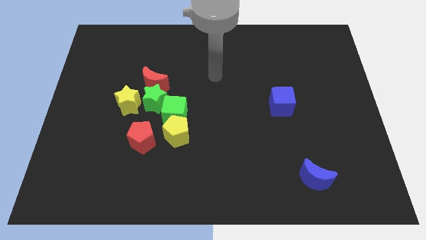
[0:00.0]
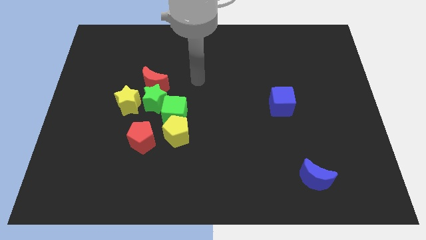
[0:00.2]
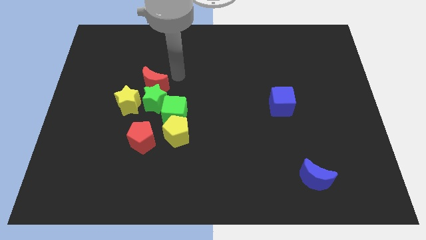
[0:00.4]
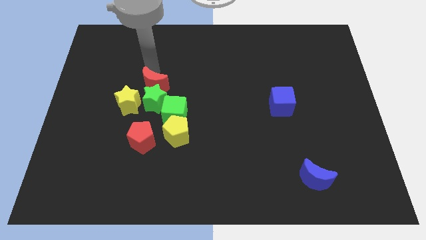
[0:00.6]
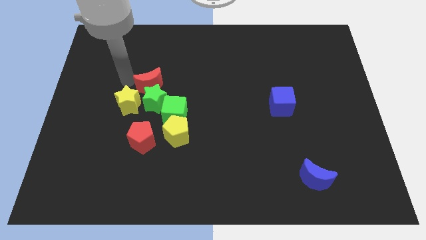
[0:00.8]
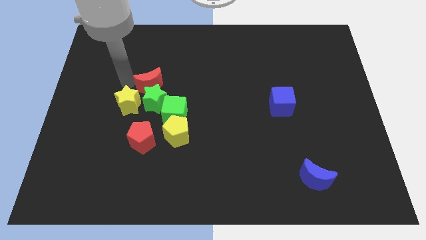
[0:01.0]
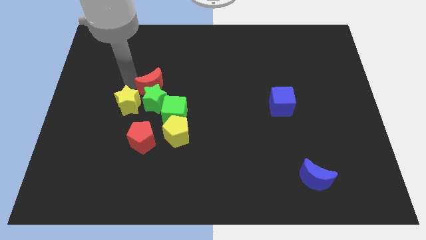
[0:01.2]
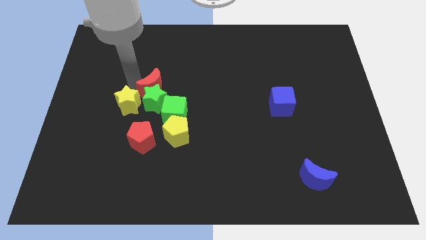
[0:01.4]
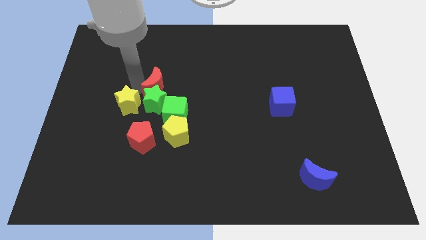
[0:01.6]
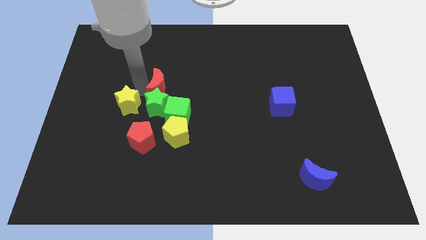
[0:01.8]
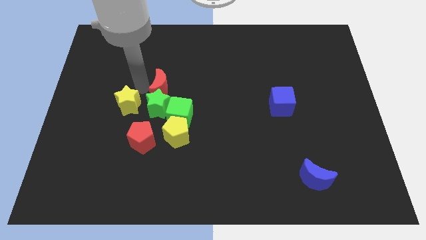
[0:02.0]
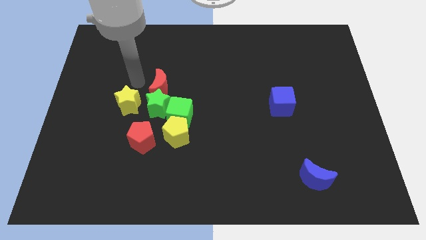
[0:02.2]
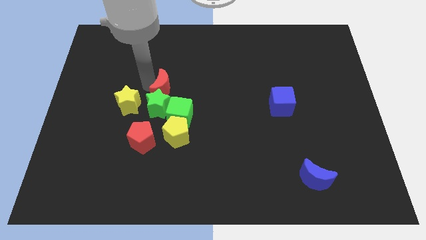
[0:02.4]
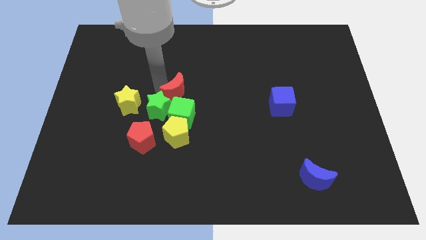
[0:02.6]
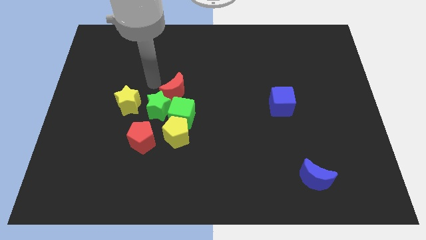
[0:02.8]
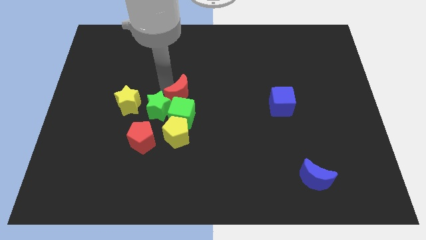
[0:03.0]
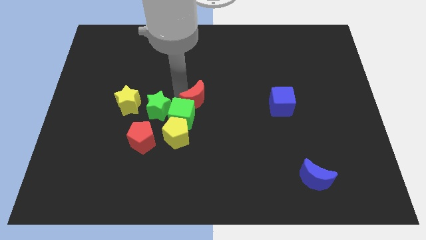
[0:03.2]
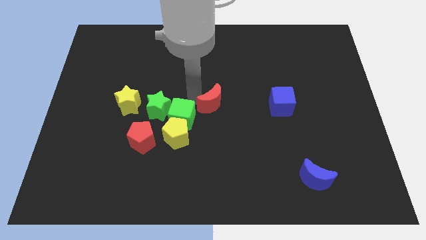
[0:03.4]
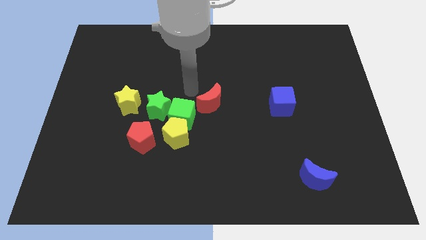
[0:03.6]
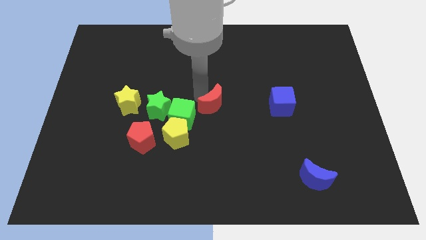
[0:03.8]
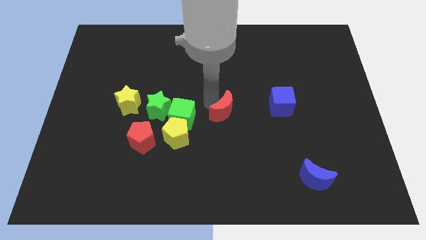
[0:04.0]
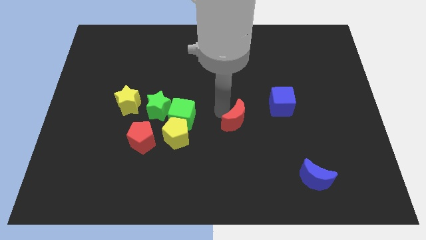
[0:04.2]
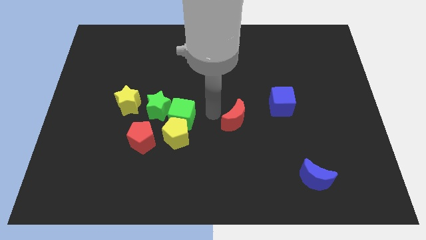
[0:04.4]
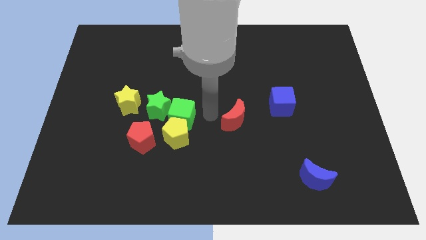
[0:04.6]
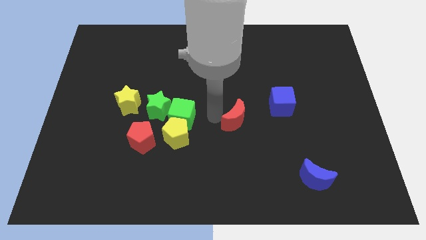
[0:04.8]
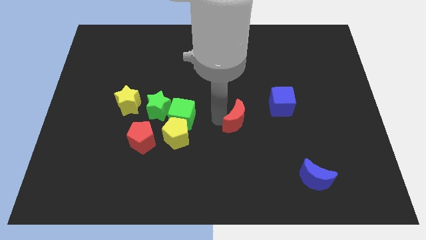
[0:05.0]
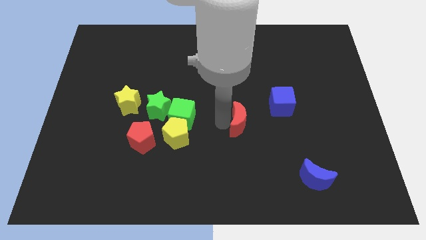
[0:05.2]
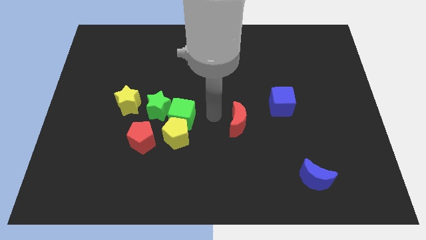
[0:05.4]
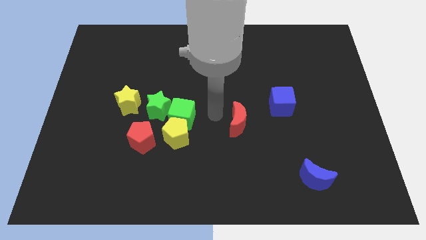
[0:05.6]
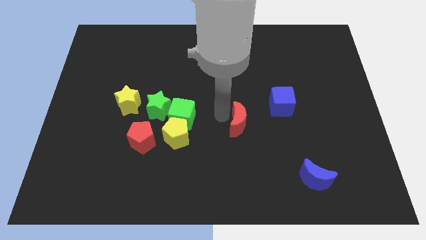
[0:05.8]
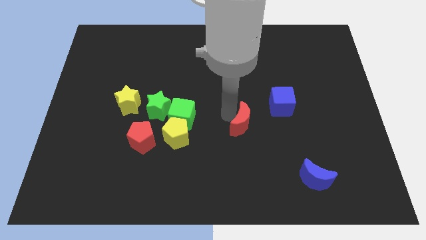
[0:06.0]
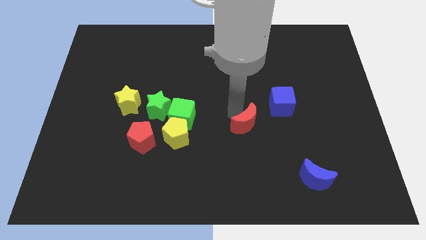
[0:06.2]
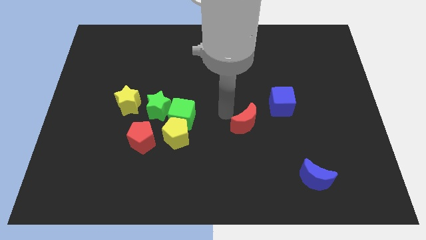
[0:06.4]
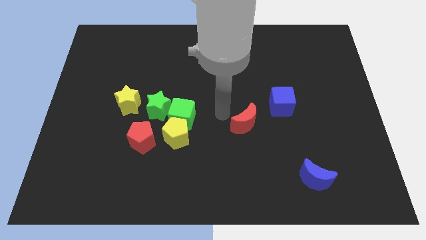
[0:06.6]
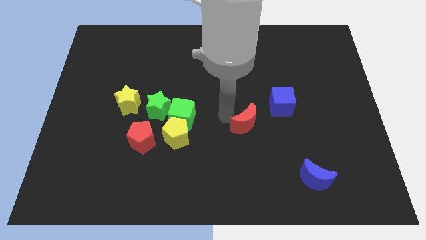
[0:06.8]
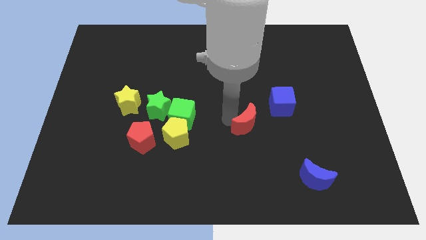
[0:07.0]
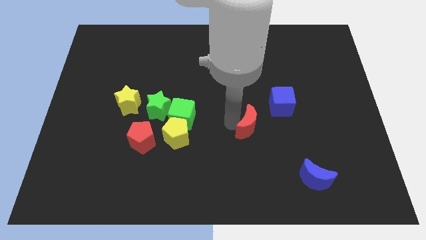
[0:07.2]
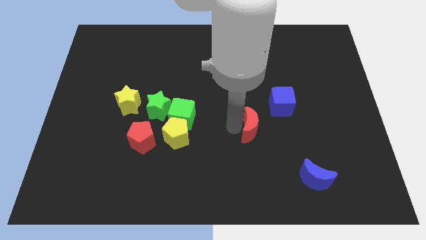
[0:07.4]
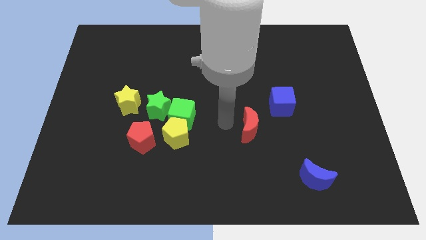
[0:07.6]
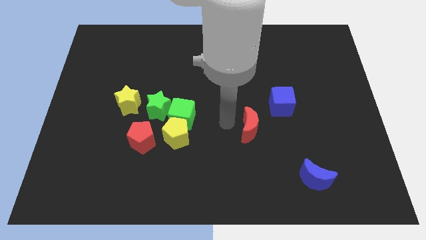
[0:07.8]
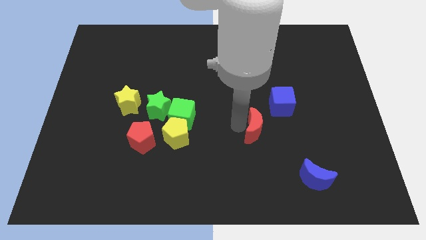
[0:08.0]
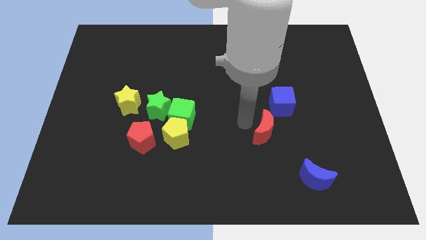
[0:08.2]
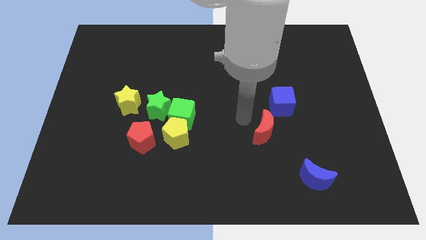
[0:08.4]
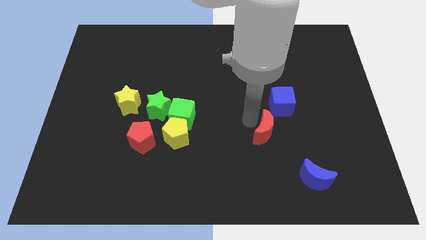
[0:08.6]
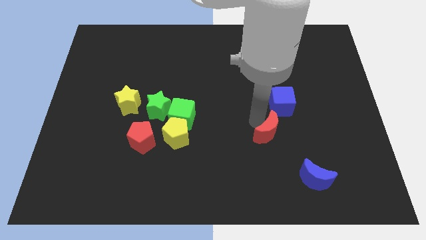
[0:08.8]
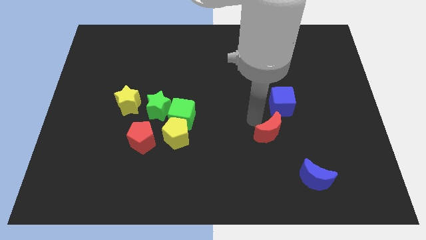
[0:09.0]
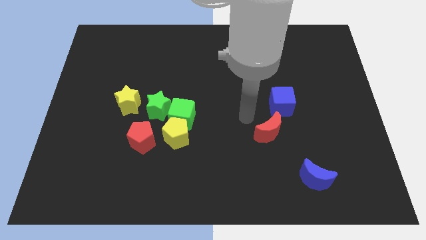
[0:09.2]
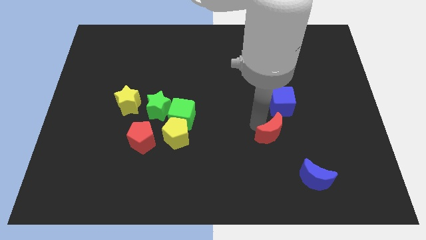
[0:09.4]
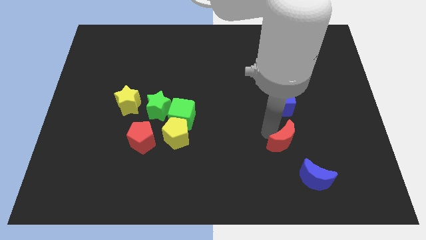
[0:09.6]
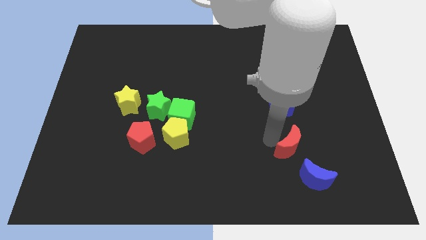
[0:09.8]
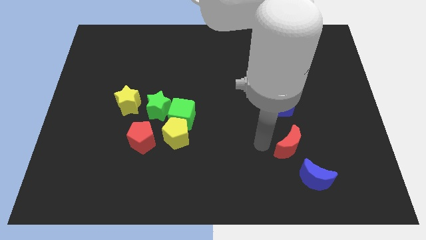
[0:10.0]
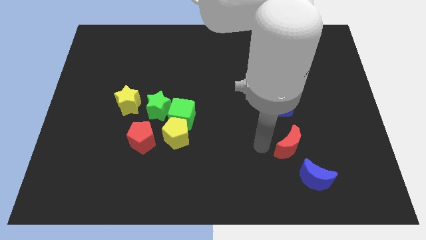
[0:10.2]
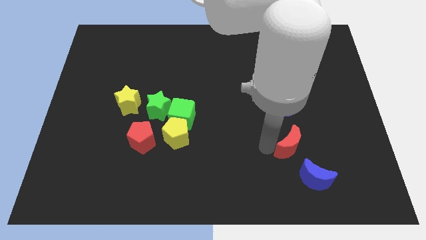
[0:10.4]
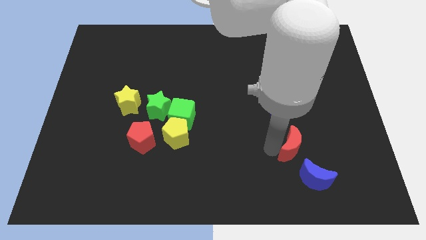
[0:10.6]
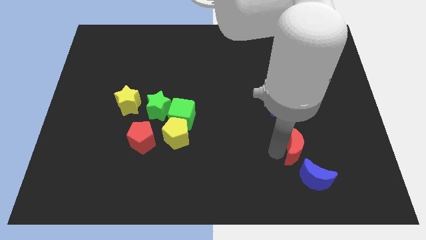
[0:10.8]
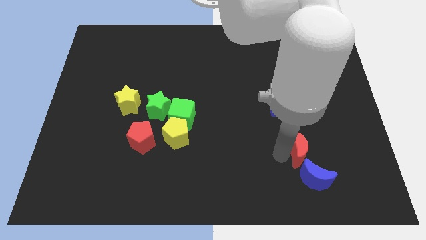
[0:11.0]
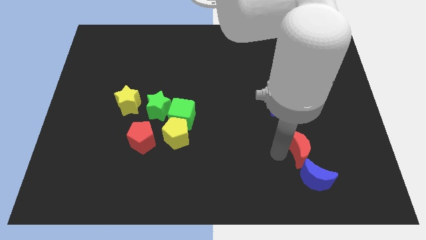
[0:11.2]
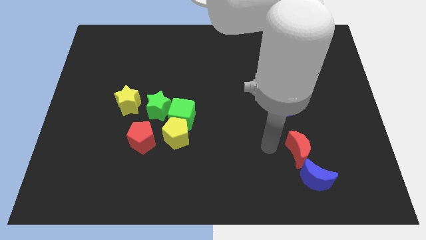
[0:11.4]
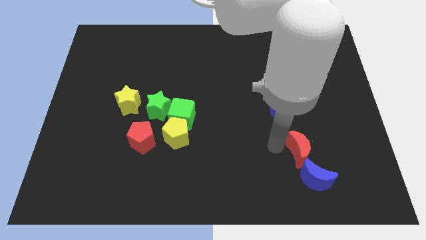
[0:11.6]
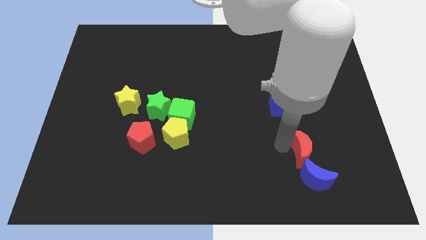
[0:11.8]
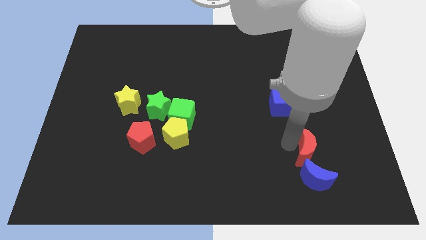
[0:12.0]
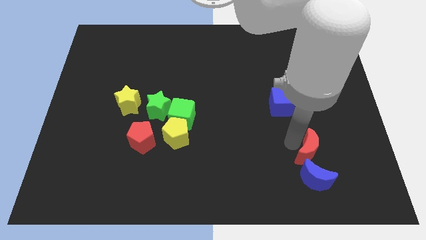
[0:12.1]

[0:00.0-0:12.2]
push the red moon diagonally up and to the right of the blue moon

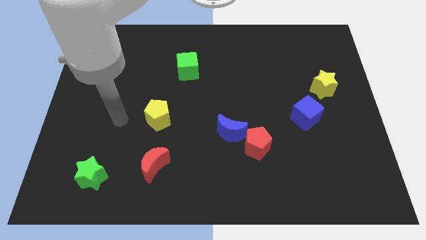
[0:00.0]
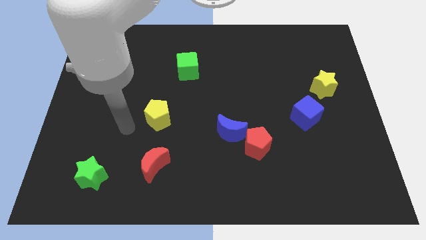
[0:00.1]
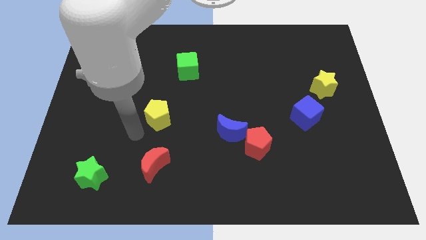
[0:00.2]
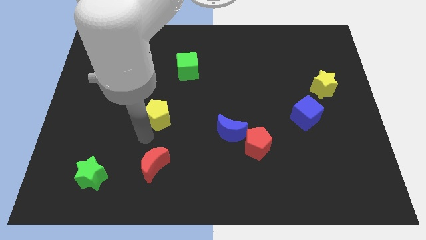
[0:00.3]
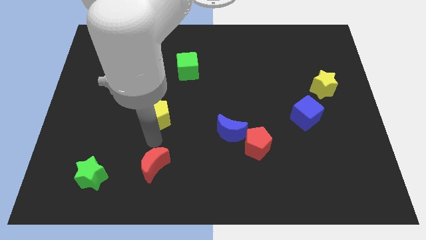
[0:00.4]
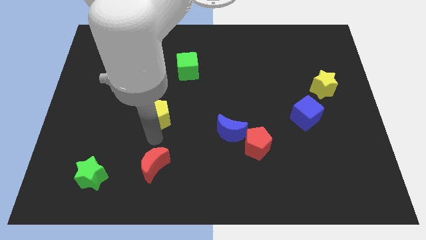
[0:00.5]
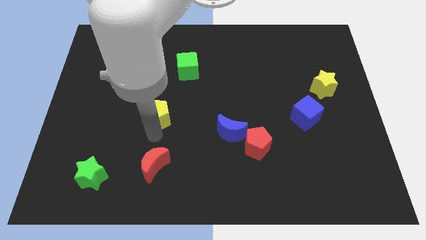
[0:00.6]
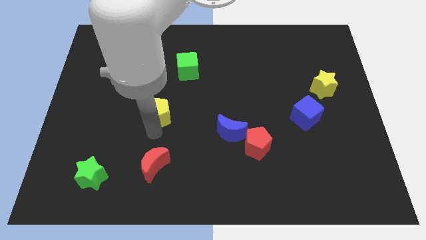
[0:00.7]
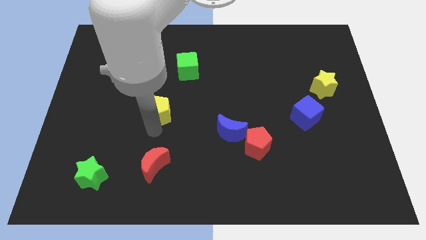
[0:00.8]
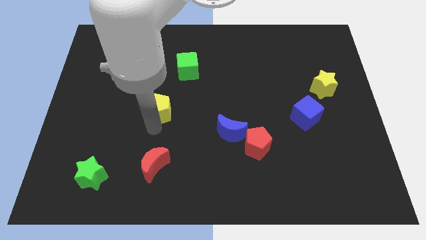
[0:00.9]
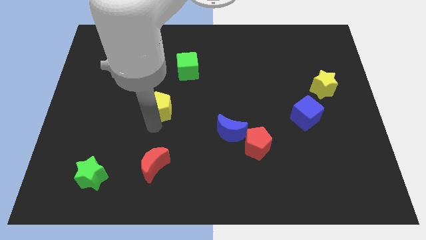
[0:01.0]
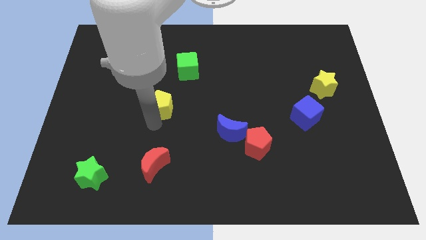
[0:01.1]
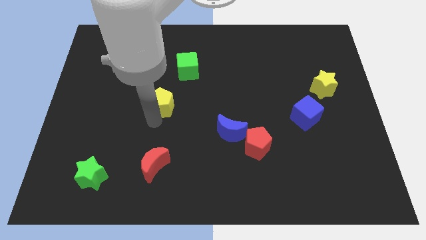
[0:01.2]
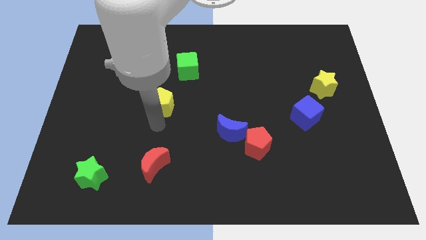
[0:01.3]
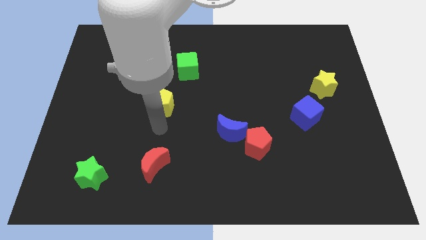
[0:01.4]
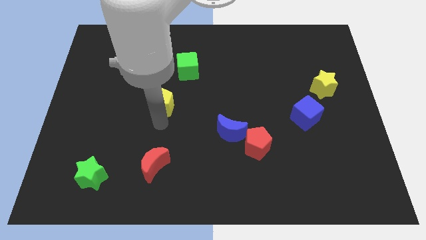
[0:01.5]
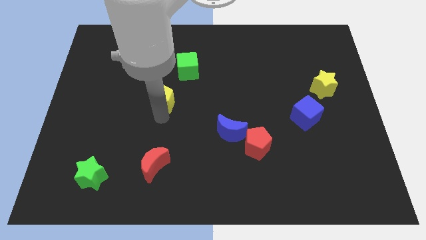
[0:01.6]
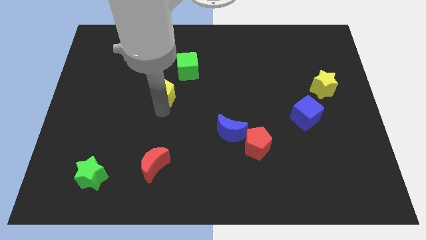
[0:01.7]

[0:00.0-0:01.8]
move the yellow pentagon to the bottom left of the green cube
